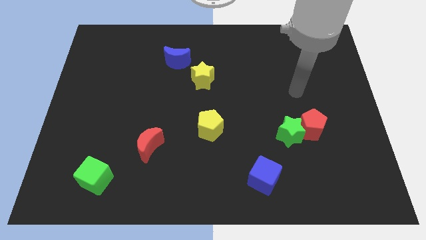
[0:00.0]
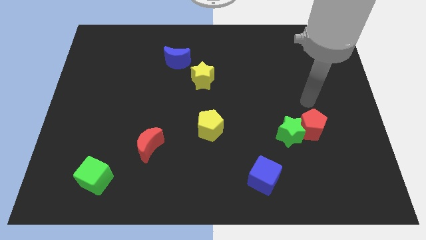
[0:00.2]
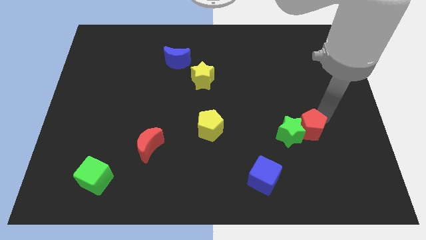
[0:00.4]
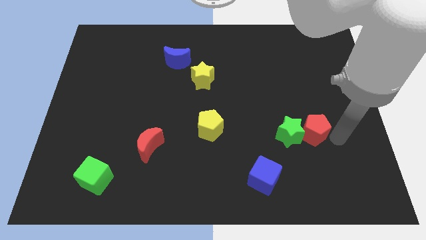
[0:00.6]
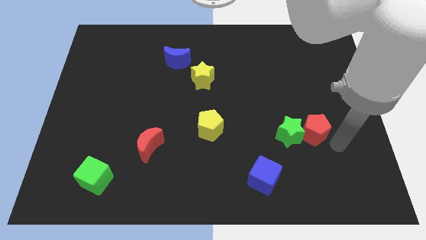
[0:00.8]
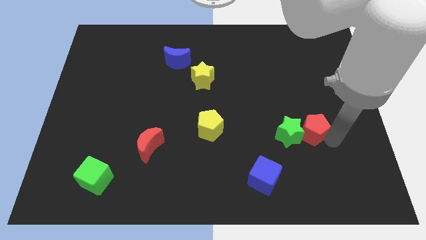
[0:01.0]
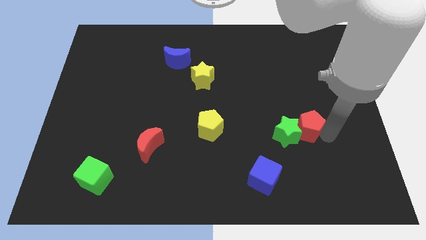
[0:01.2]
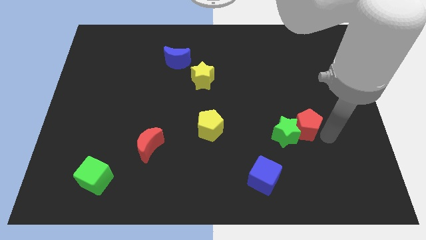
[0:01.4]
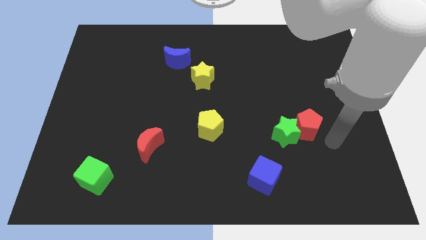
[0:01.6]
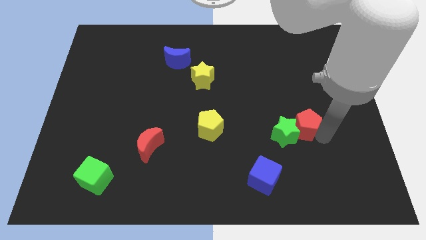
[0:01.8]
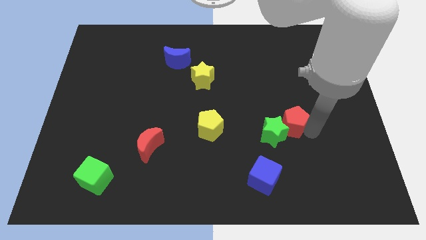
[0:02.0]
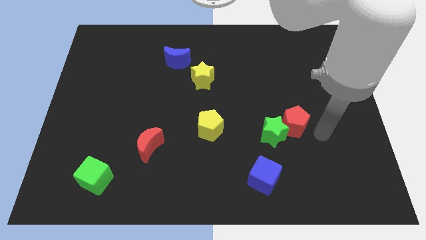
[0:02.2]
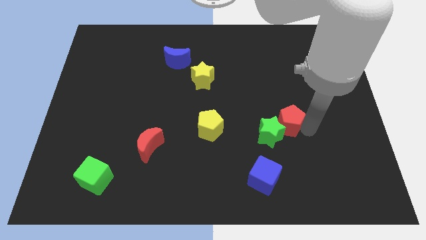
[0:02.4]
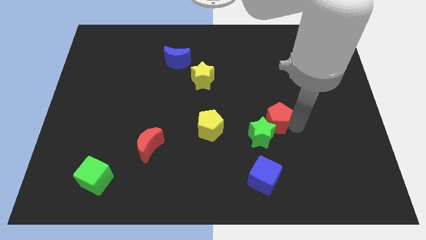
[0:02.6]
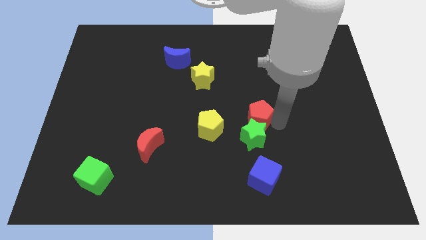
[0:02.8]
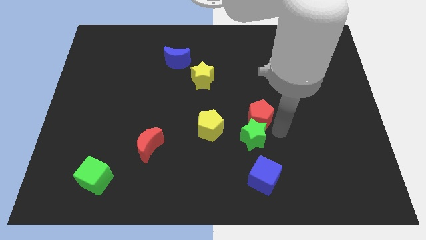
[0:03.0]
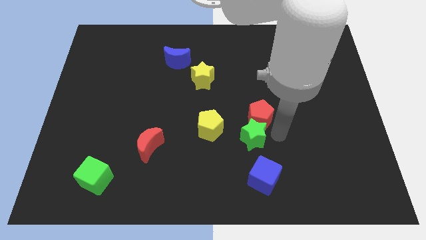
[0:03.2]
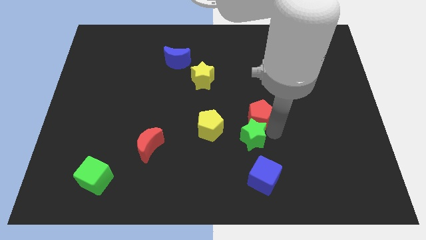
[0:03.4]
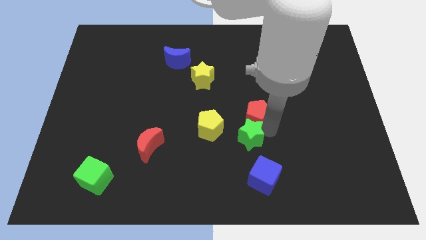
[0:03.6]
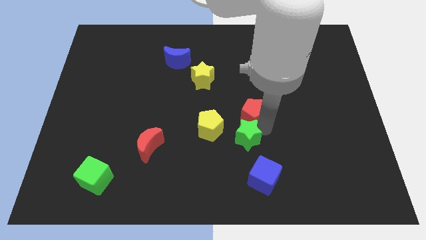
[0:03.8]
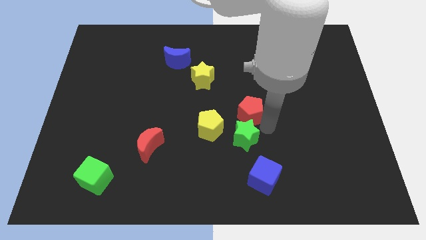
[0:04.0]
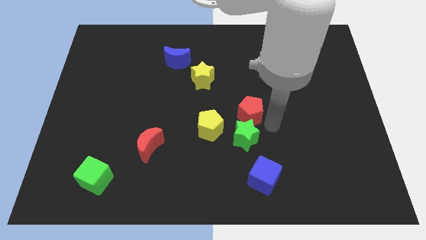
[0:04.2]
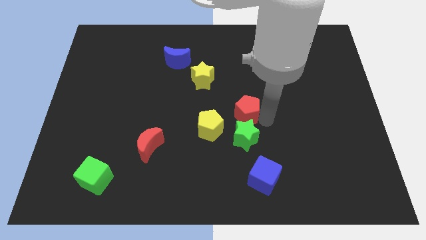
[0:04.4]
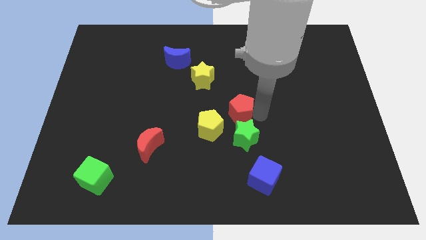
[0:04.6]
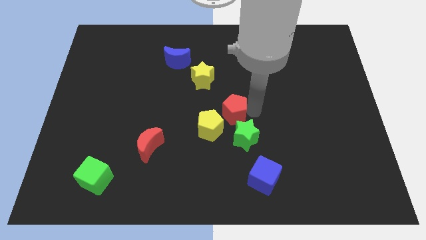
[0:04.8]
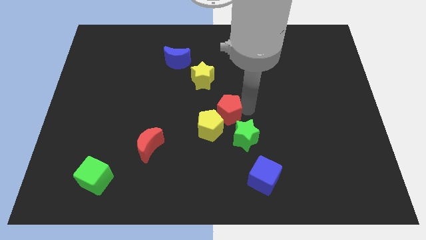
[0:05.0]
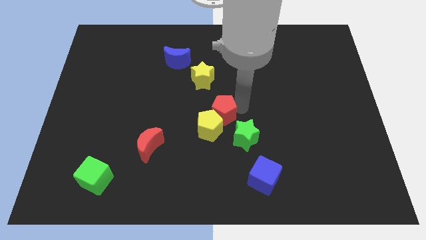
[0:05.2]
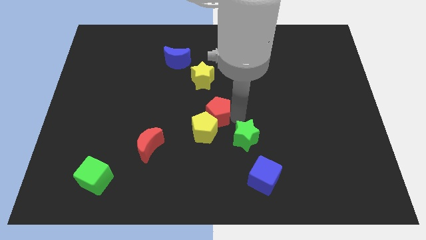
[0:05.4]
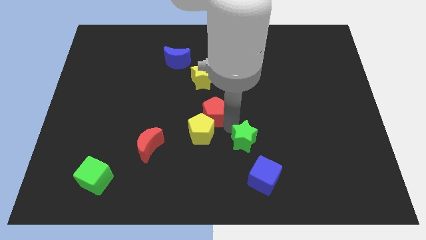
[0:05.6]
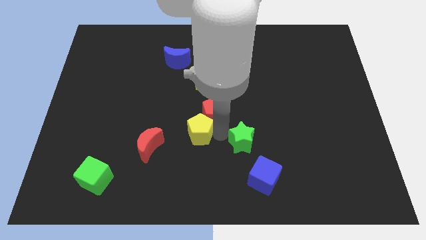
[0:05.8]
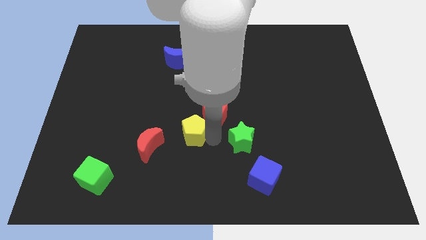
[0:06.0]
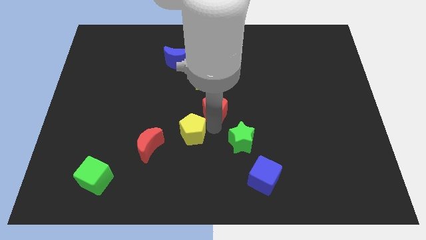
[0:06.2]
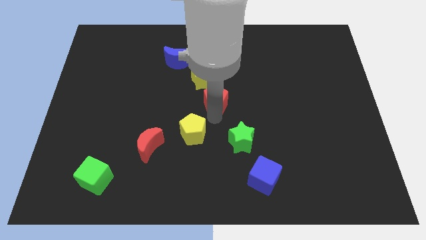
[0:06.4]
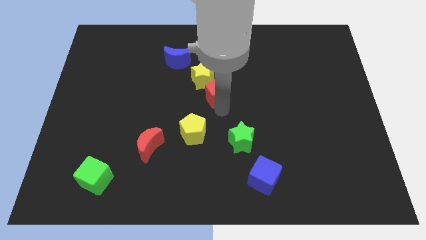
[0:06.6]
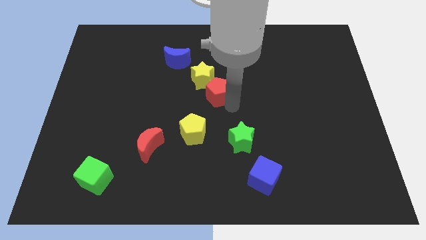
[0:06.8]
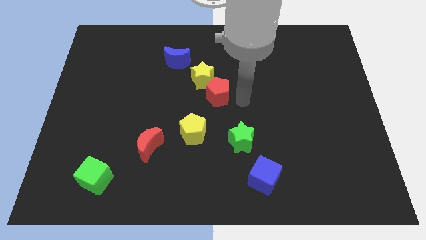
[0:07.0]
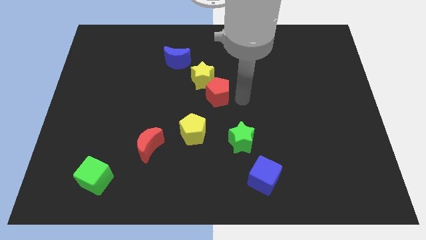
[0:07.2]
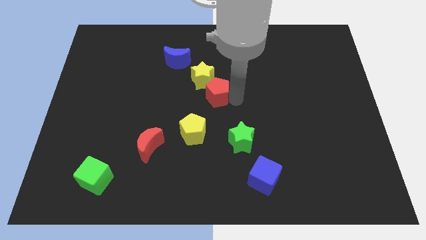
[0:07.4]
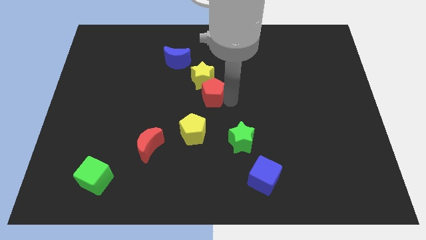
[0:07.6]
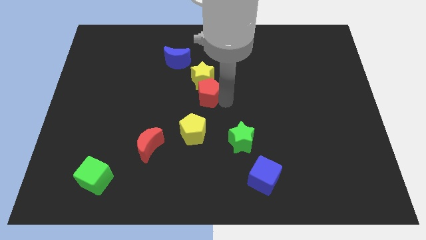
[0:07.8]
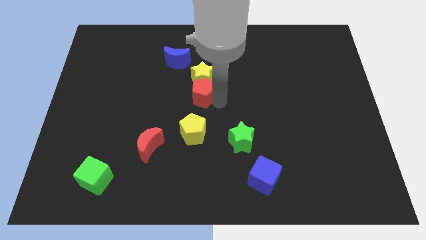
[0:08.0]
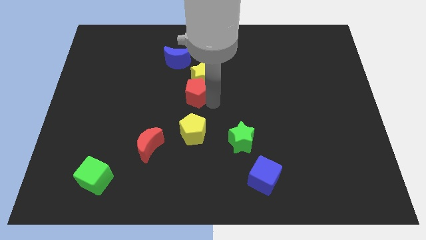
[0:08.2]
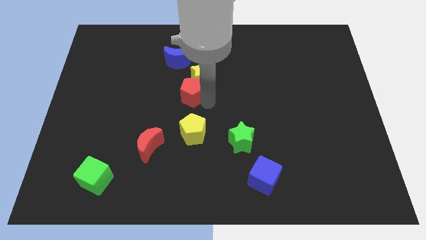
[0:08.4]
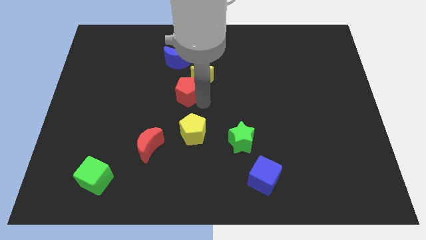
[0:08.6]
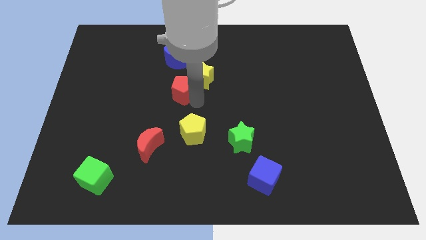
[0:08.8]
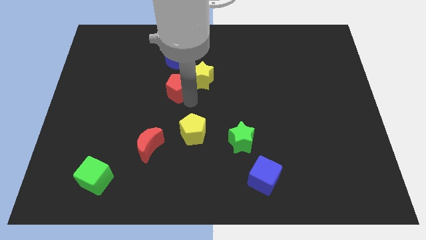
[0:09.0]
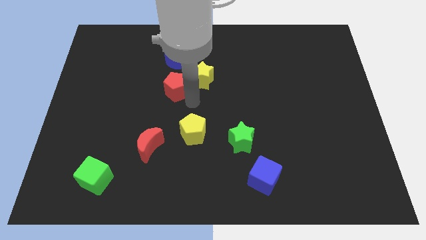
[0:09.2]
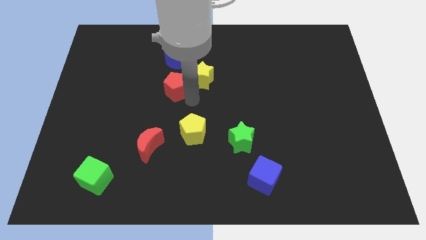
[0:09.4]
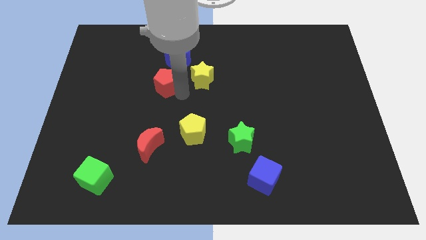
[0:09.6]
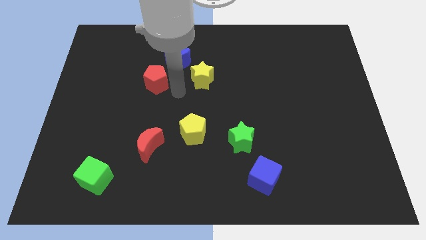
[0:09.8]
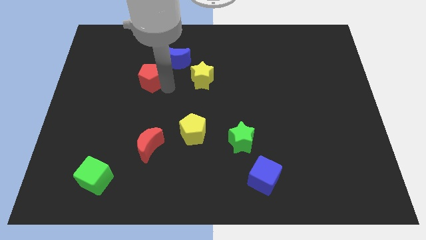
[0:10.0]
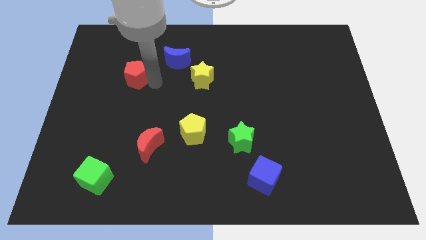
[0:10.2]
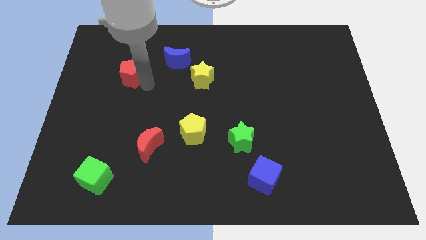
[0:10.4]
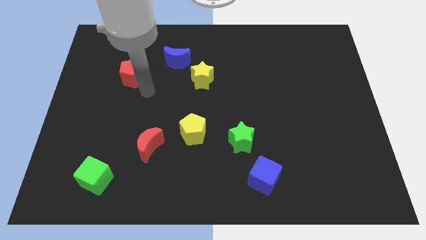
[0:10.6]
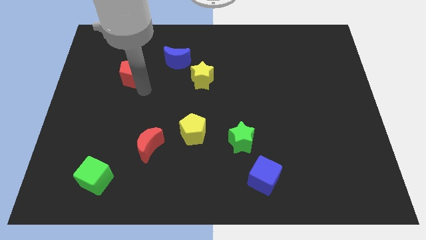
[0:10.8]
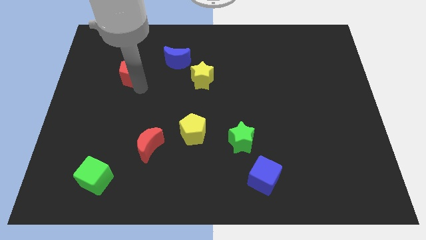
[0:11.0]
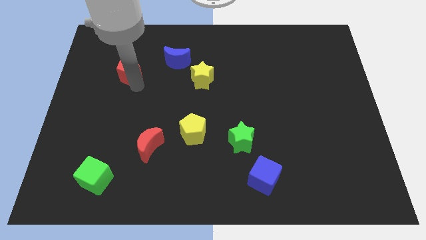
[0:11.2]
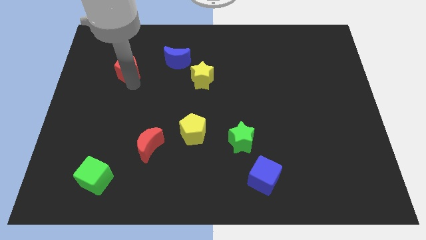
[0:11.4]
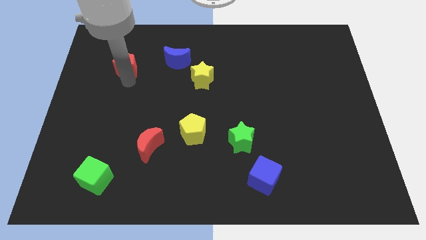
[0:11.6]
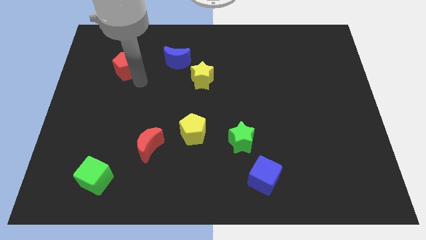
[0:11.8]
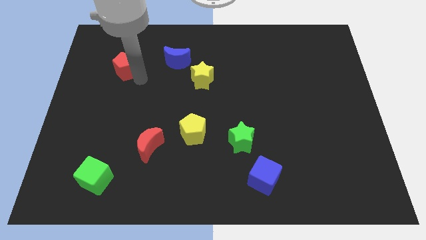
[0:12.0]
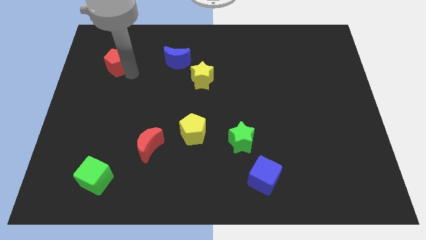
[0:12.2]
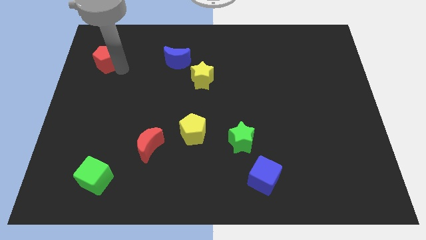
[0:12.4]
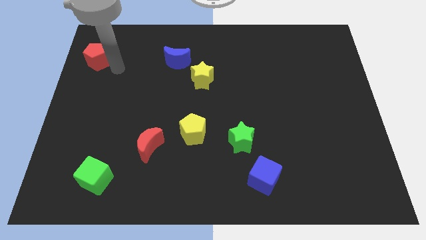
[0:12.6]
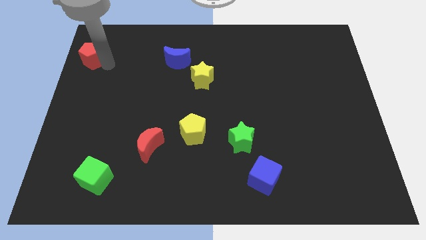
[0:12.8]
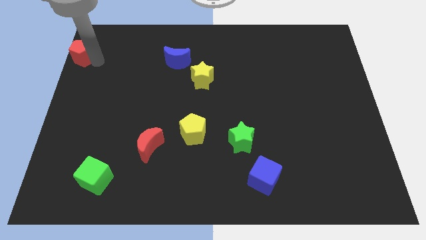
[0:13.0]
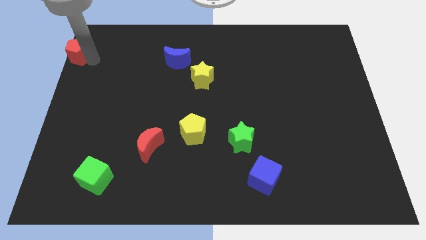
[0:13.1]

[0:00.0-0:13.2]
push the red pentagon to the upper left corner
